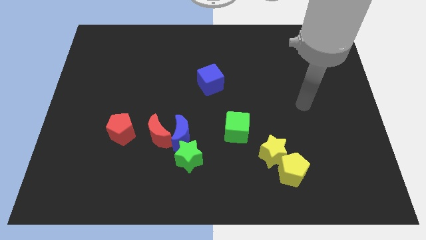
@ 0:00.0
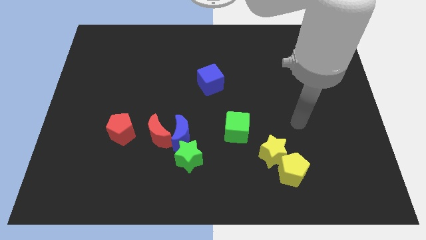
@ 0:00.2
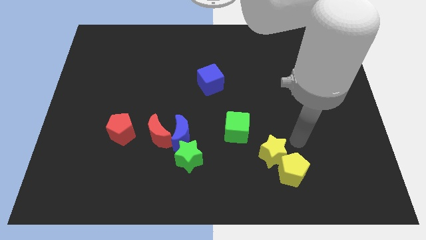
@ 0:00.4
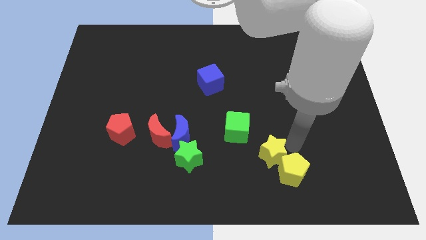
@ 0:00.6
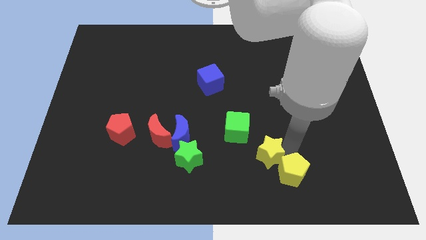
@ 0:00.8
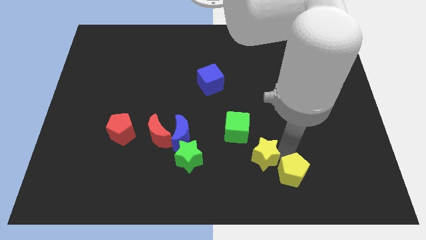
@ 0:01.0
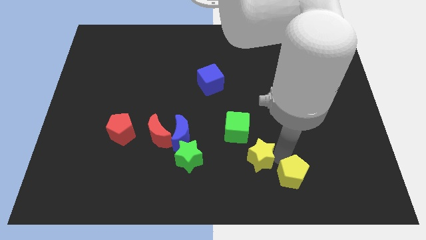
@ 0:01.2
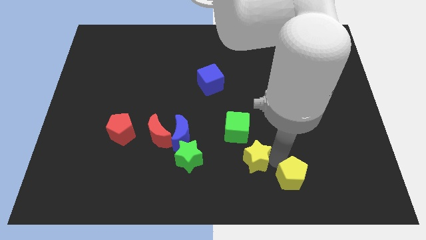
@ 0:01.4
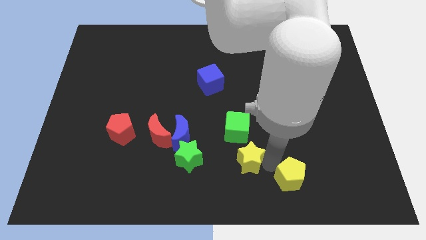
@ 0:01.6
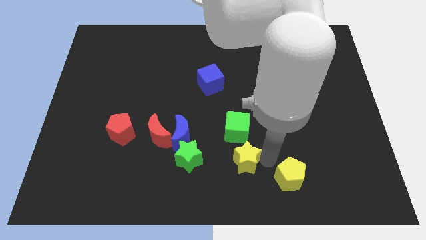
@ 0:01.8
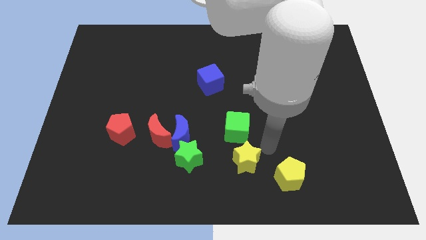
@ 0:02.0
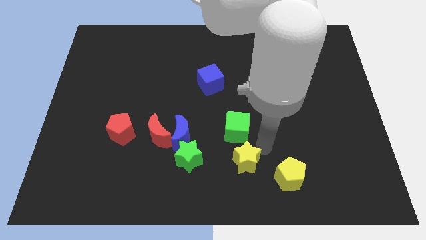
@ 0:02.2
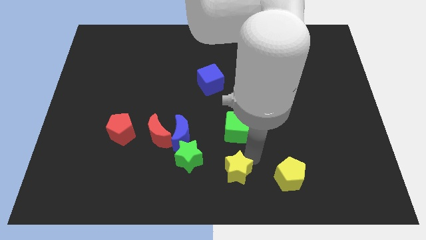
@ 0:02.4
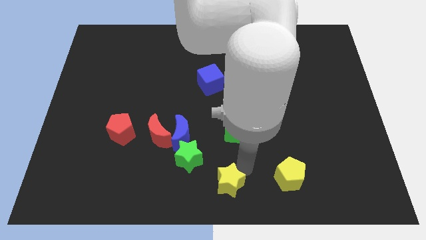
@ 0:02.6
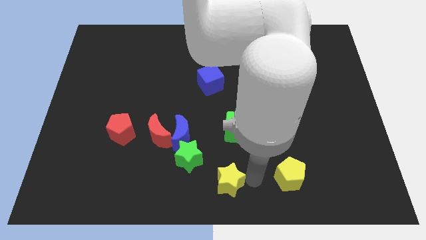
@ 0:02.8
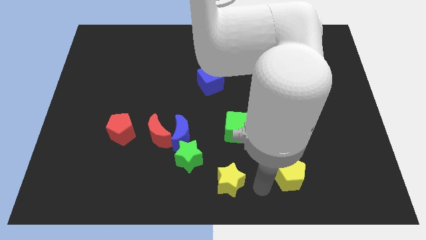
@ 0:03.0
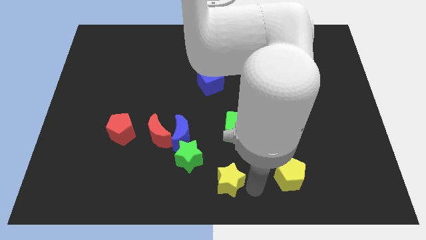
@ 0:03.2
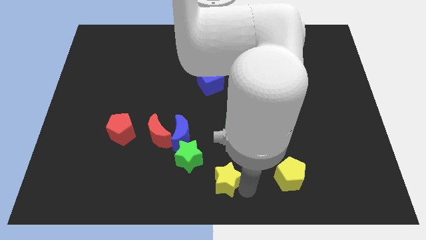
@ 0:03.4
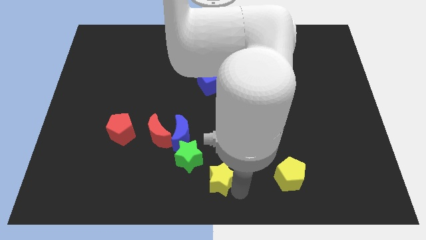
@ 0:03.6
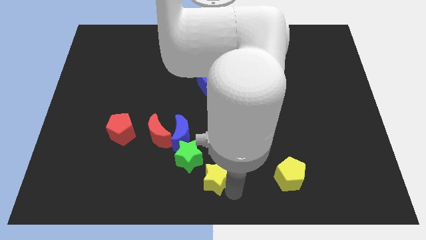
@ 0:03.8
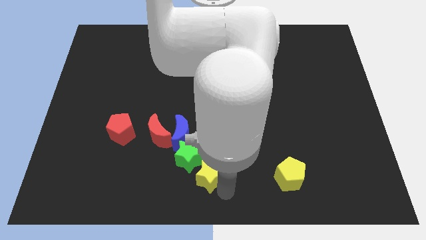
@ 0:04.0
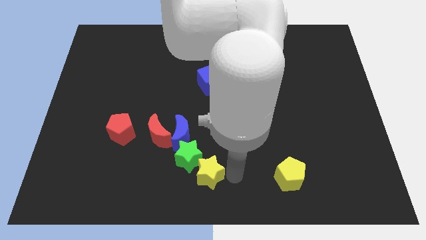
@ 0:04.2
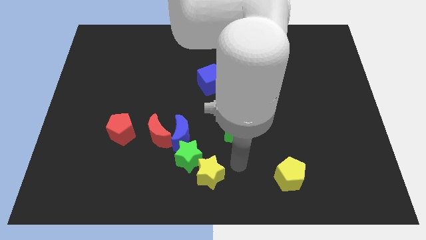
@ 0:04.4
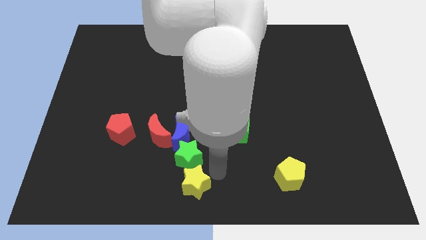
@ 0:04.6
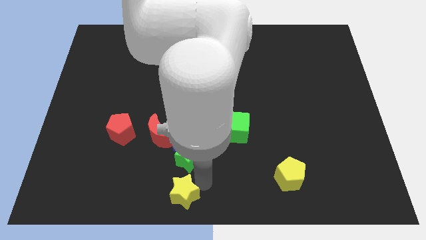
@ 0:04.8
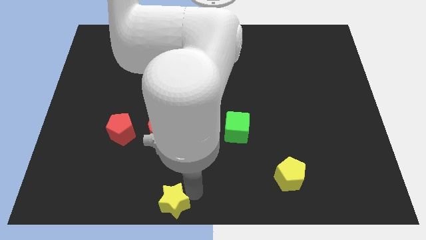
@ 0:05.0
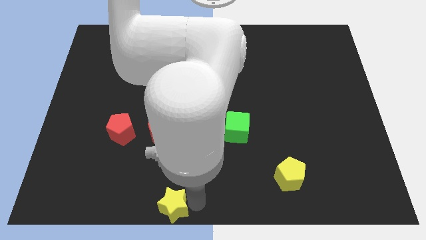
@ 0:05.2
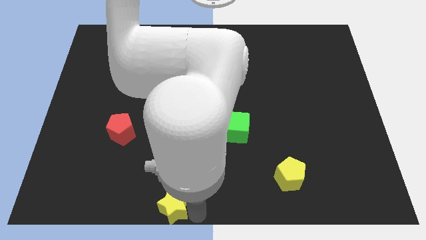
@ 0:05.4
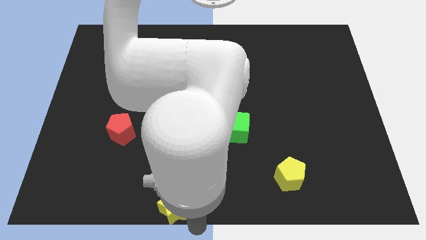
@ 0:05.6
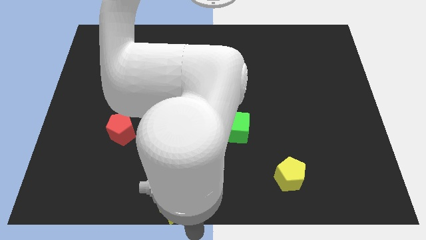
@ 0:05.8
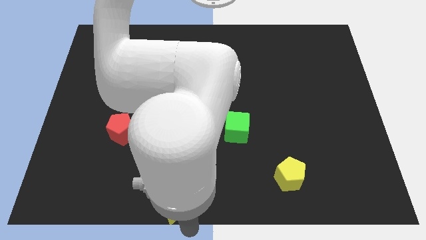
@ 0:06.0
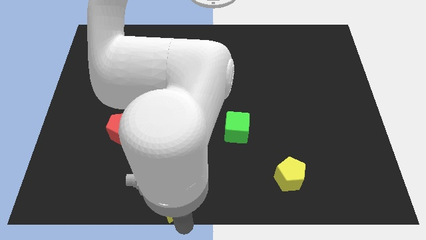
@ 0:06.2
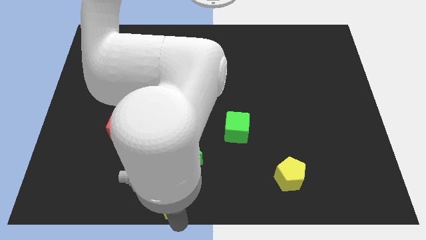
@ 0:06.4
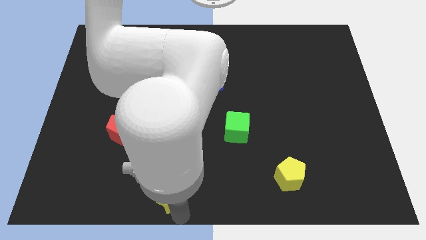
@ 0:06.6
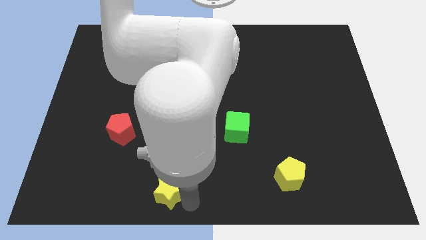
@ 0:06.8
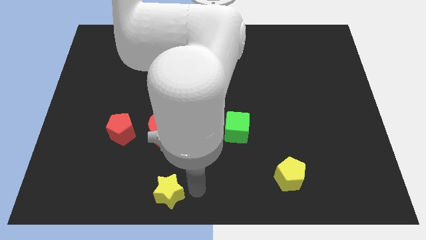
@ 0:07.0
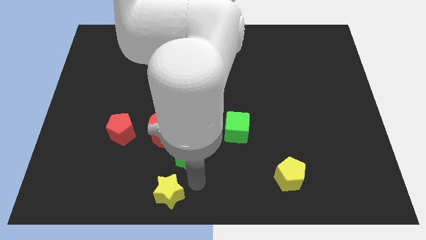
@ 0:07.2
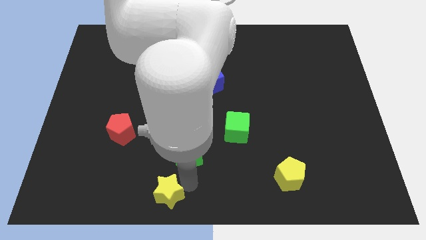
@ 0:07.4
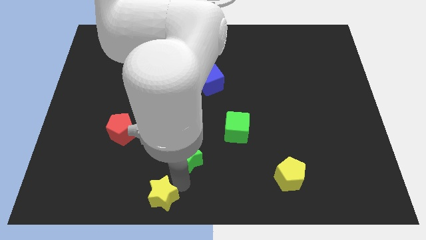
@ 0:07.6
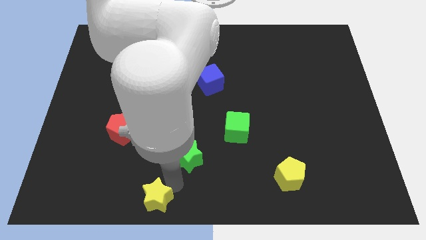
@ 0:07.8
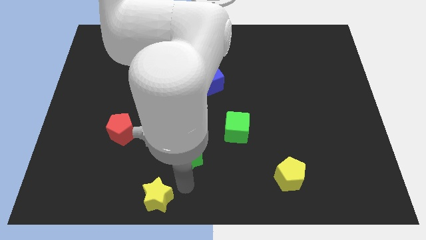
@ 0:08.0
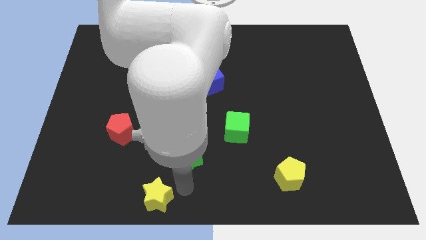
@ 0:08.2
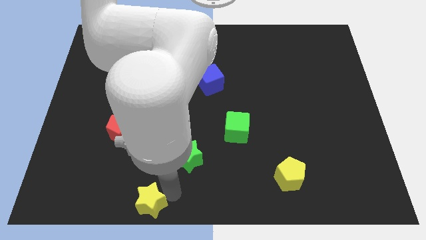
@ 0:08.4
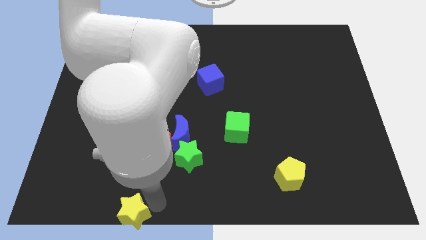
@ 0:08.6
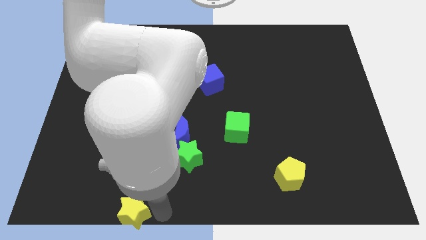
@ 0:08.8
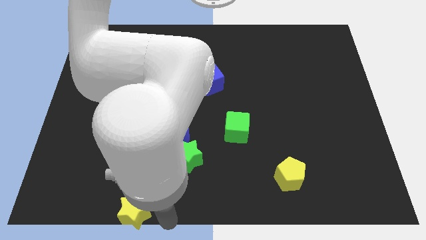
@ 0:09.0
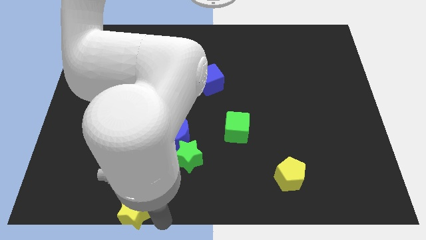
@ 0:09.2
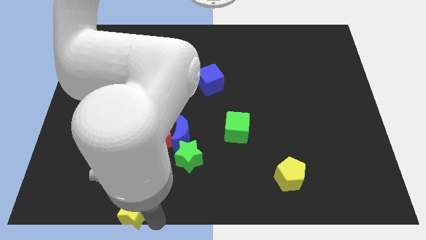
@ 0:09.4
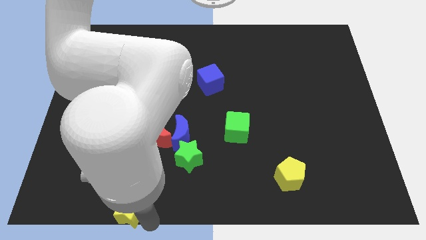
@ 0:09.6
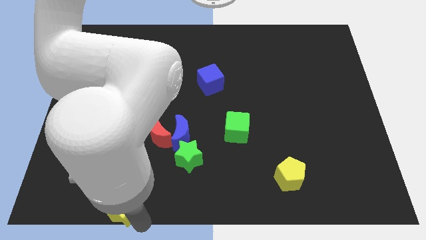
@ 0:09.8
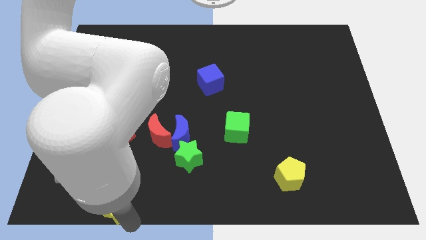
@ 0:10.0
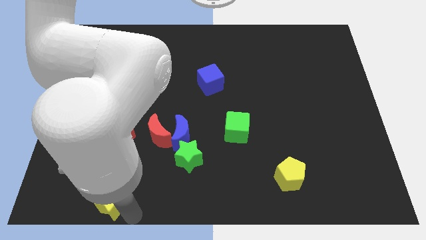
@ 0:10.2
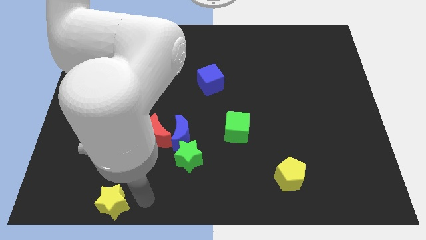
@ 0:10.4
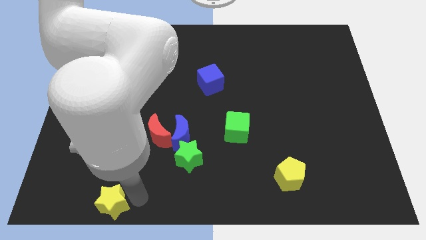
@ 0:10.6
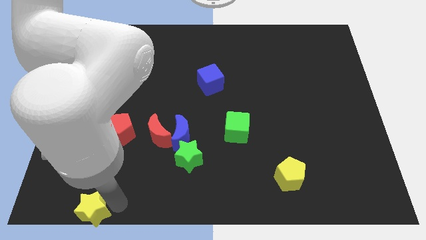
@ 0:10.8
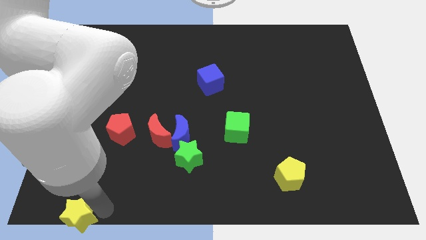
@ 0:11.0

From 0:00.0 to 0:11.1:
slide the yellow star to the lower left corner

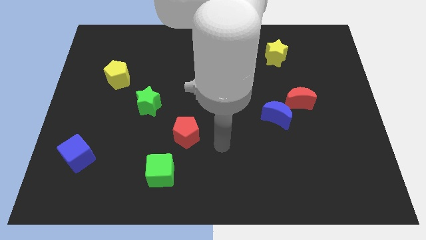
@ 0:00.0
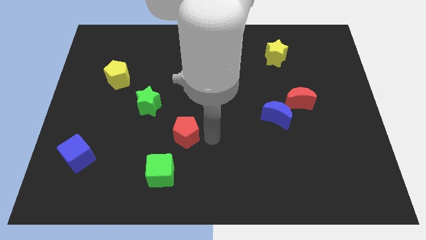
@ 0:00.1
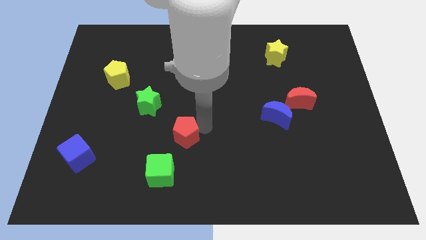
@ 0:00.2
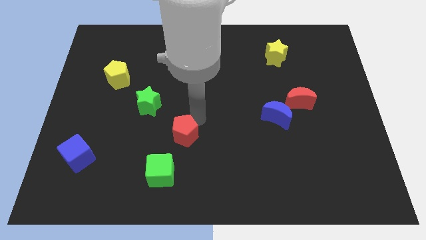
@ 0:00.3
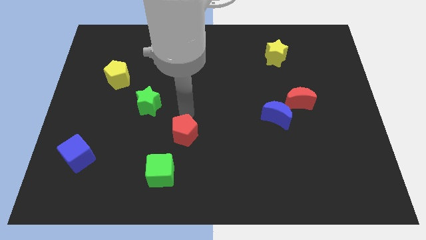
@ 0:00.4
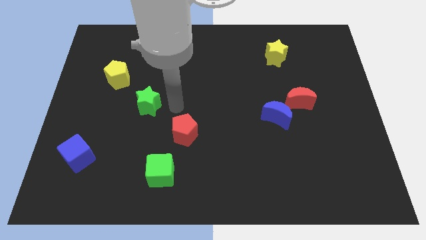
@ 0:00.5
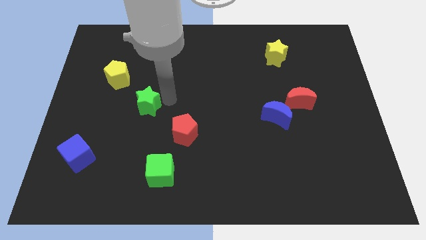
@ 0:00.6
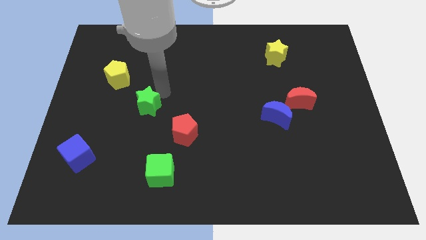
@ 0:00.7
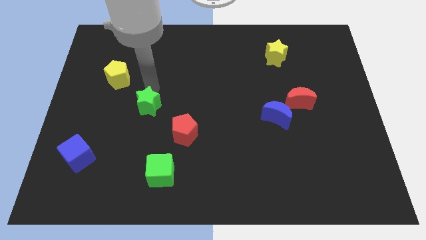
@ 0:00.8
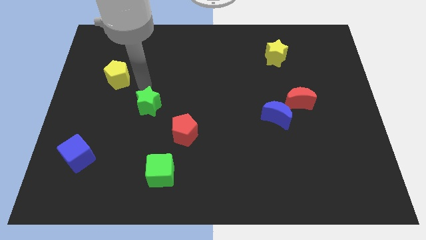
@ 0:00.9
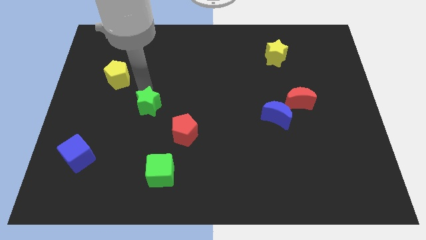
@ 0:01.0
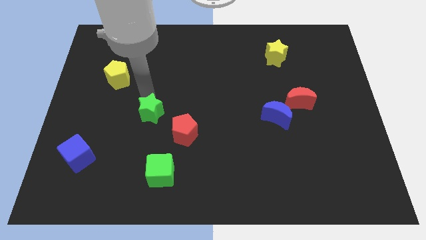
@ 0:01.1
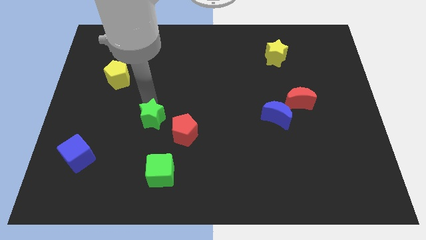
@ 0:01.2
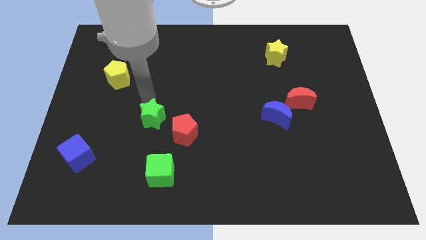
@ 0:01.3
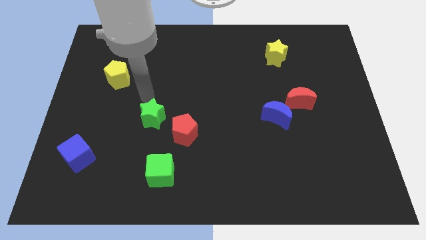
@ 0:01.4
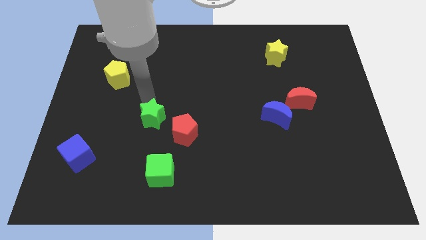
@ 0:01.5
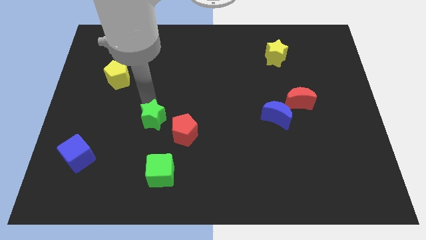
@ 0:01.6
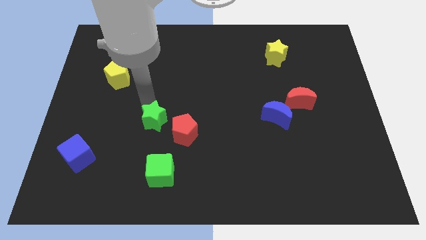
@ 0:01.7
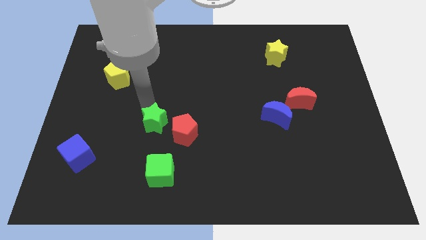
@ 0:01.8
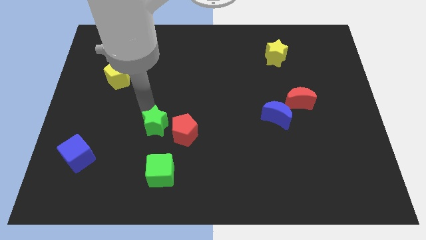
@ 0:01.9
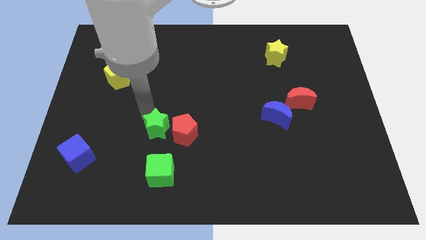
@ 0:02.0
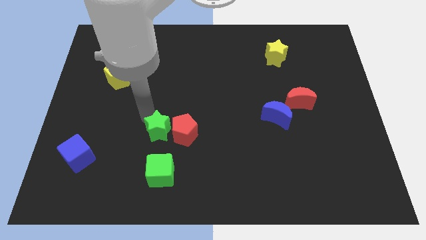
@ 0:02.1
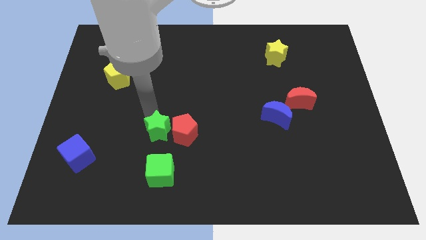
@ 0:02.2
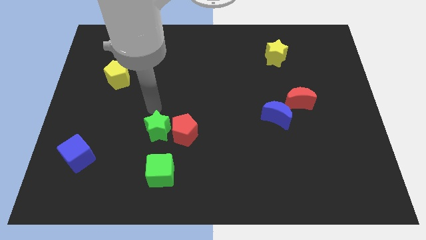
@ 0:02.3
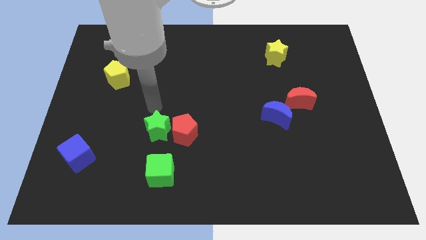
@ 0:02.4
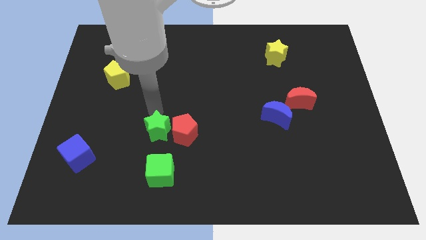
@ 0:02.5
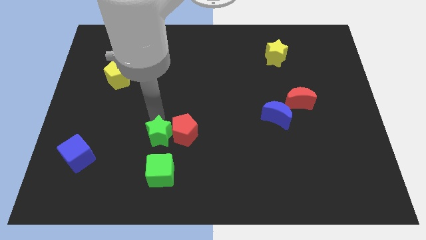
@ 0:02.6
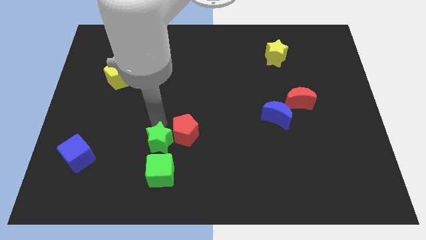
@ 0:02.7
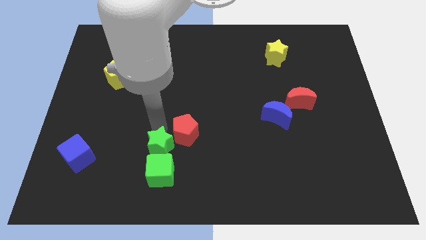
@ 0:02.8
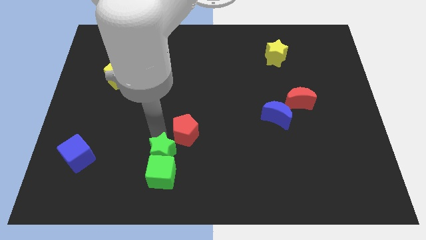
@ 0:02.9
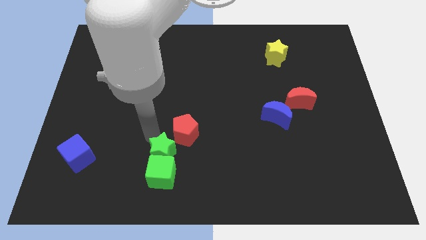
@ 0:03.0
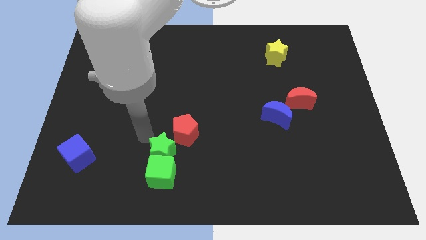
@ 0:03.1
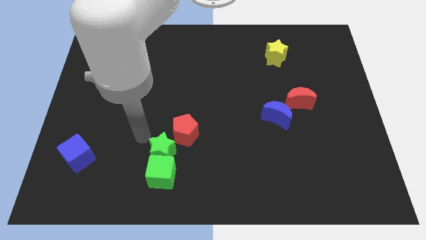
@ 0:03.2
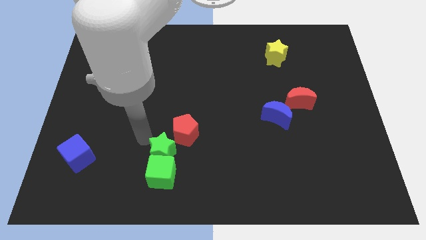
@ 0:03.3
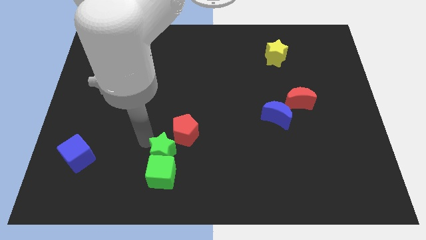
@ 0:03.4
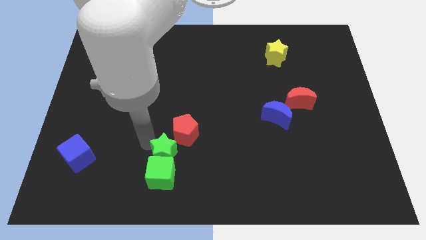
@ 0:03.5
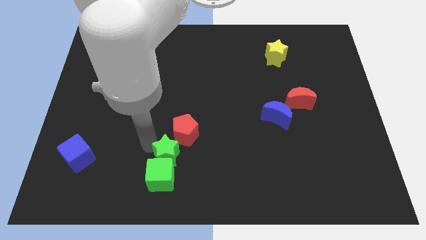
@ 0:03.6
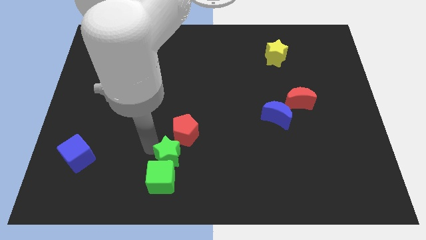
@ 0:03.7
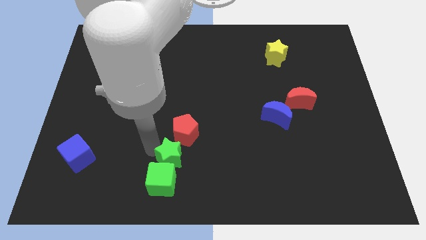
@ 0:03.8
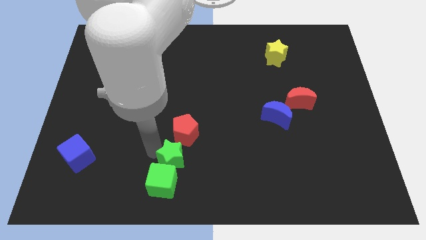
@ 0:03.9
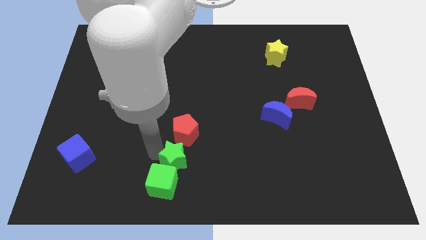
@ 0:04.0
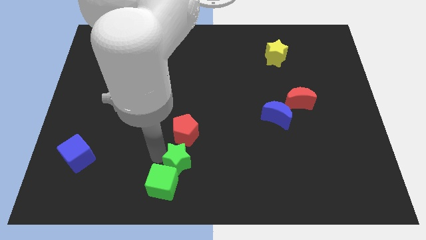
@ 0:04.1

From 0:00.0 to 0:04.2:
slide the green star to the bottom side
